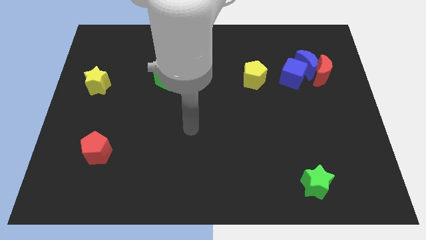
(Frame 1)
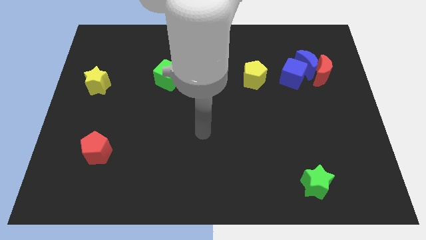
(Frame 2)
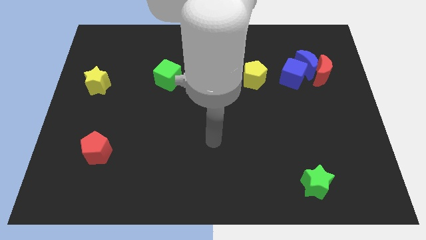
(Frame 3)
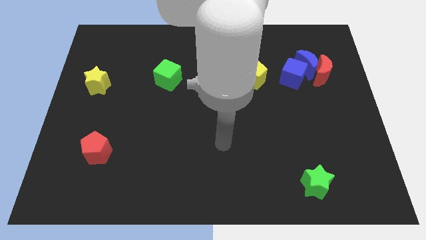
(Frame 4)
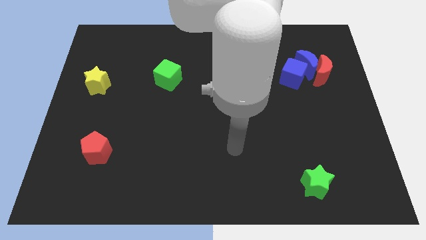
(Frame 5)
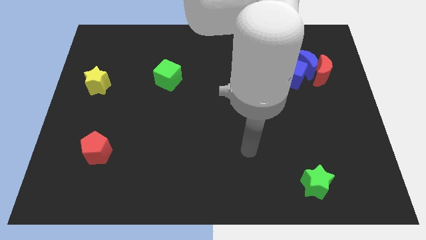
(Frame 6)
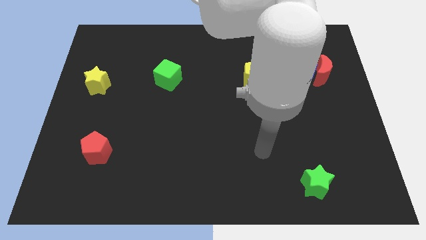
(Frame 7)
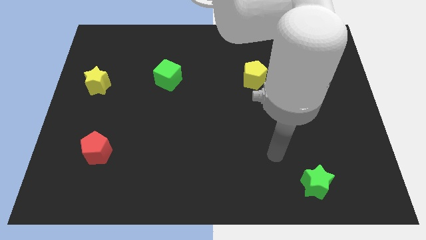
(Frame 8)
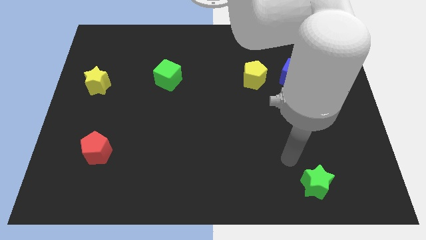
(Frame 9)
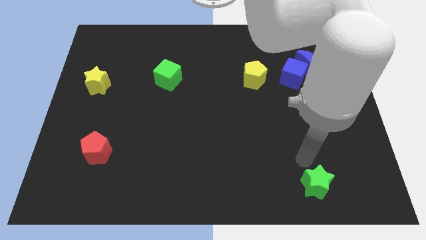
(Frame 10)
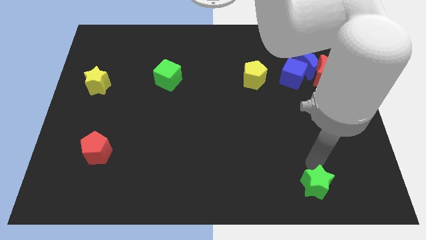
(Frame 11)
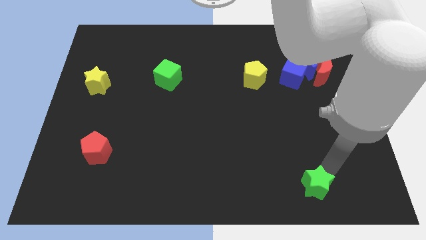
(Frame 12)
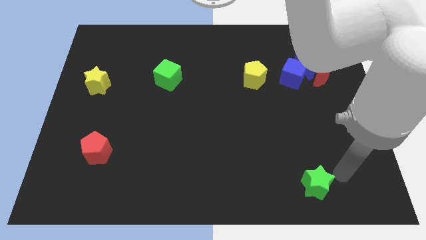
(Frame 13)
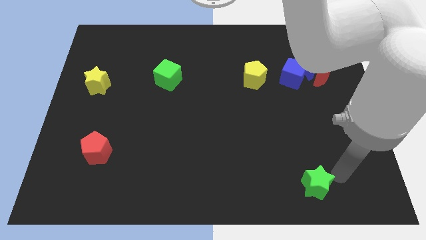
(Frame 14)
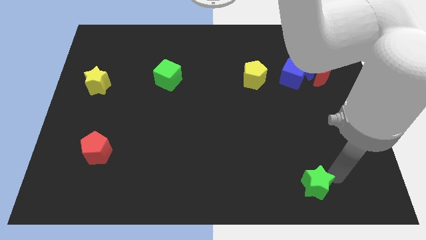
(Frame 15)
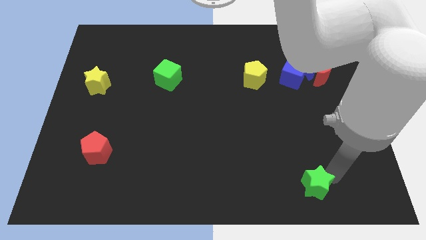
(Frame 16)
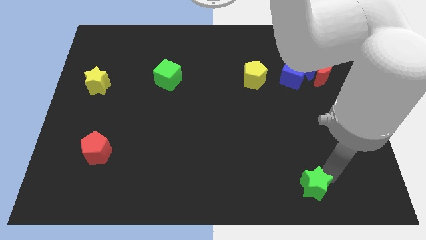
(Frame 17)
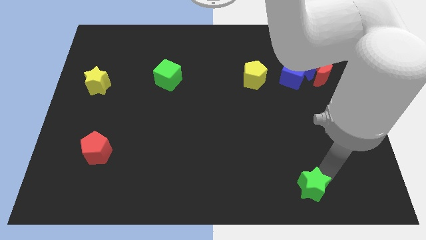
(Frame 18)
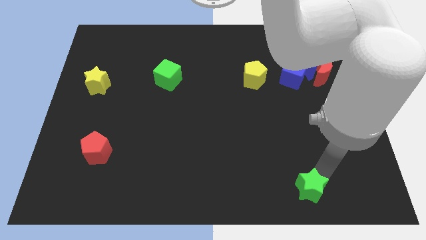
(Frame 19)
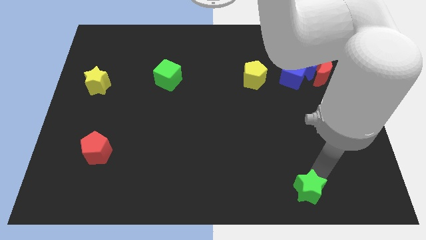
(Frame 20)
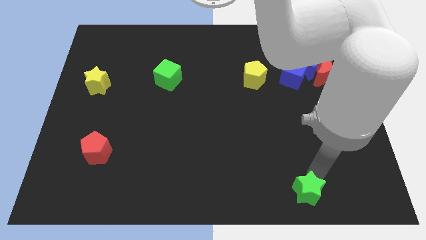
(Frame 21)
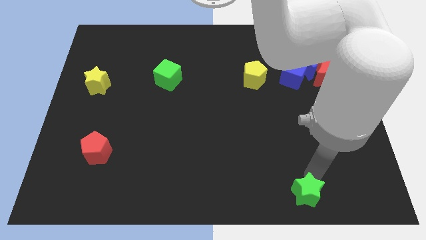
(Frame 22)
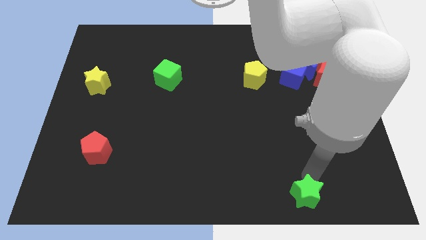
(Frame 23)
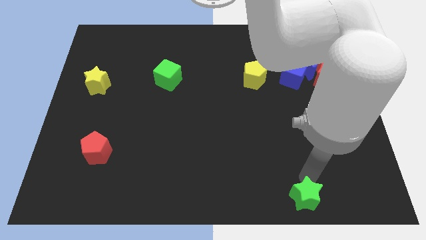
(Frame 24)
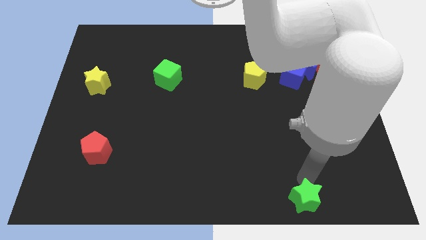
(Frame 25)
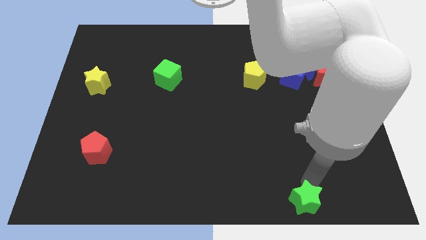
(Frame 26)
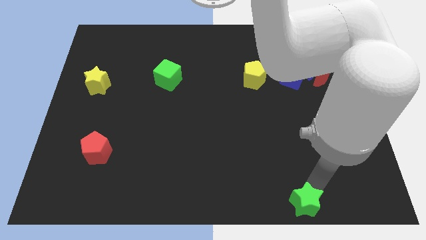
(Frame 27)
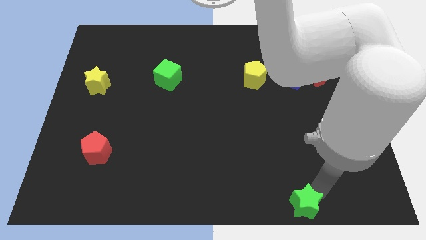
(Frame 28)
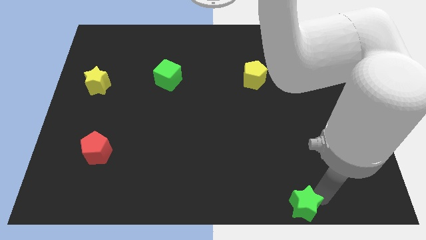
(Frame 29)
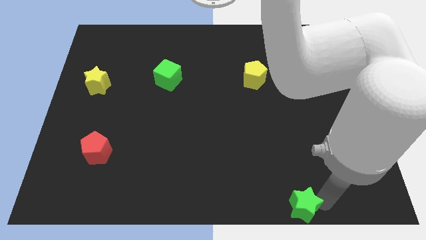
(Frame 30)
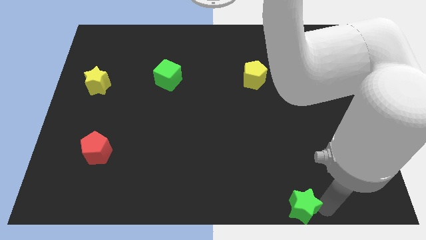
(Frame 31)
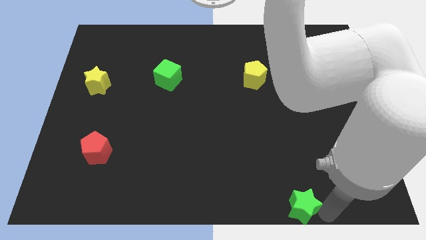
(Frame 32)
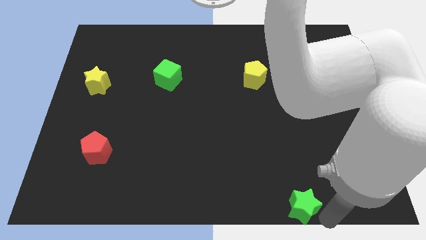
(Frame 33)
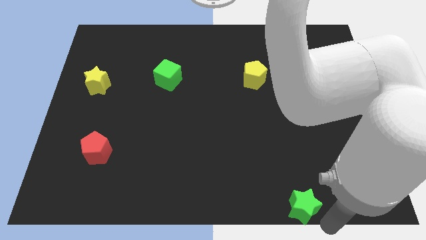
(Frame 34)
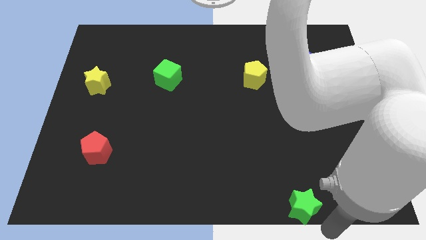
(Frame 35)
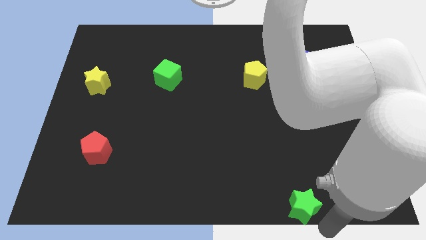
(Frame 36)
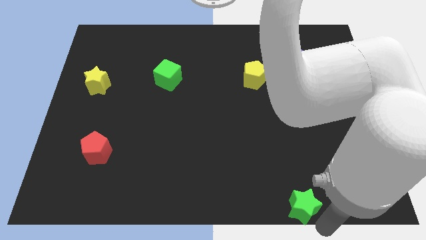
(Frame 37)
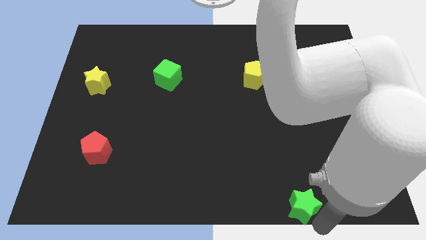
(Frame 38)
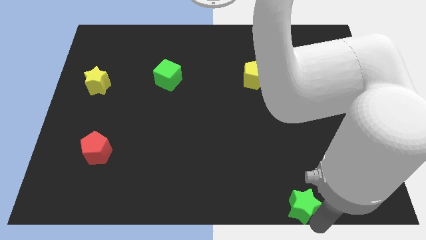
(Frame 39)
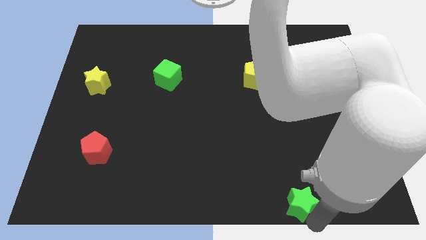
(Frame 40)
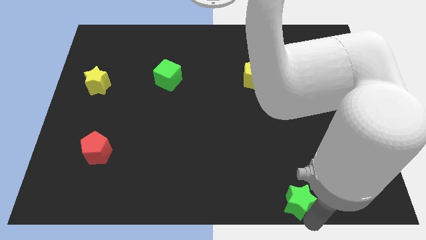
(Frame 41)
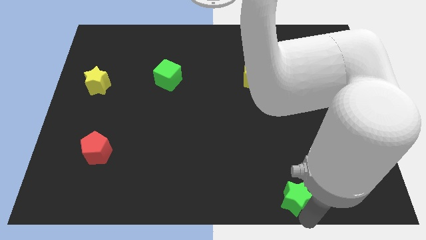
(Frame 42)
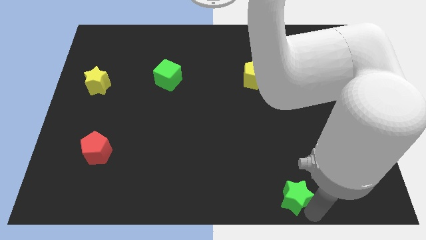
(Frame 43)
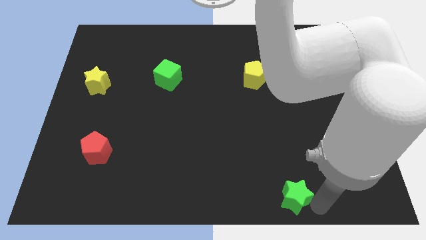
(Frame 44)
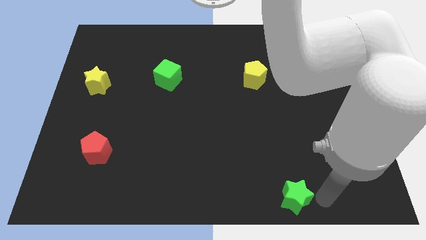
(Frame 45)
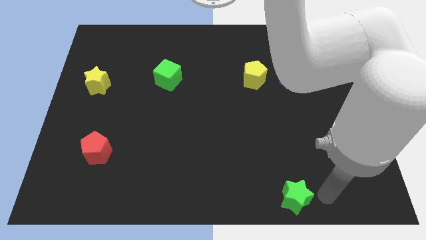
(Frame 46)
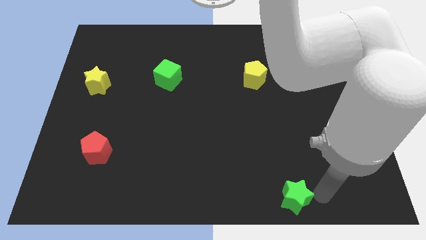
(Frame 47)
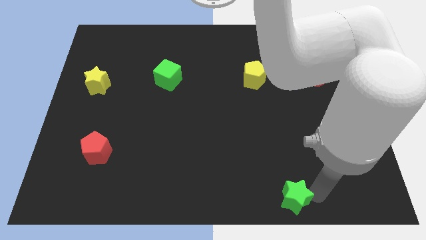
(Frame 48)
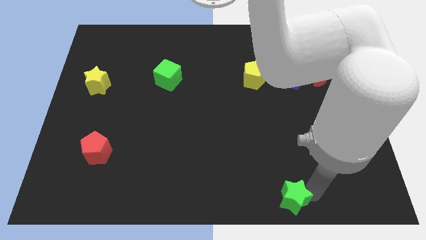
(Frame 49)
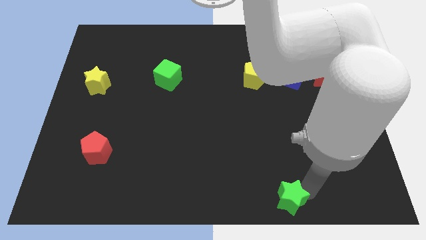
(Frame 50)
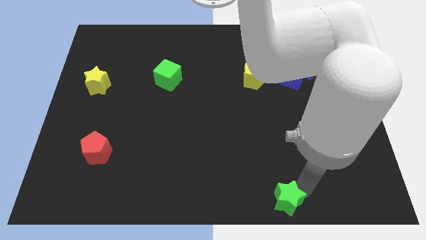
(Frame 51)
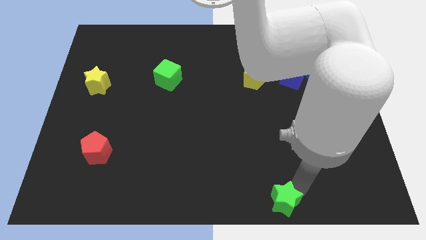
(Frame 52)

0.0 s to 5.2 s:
slide the green star to the bottom
